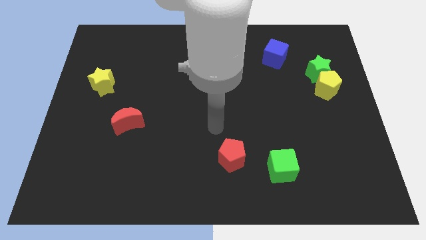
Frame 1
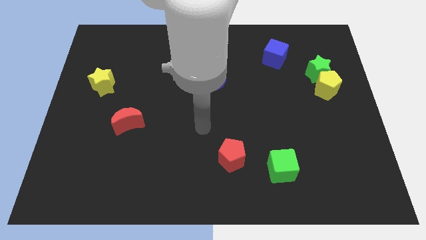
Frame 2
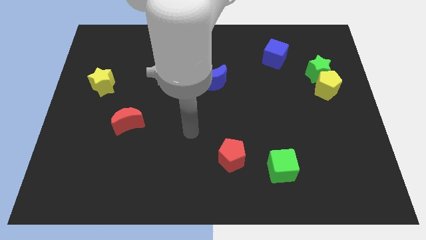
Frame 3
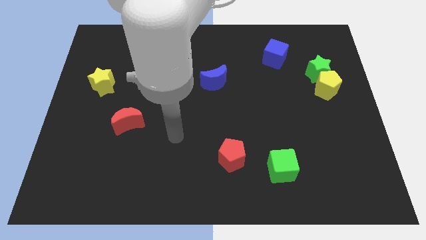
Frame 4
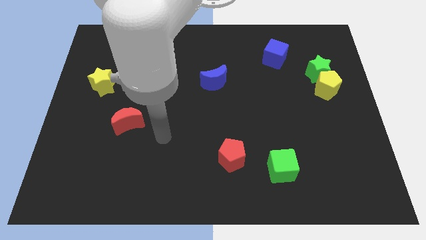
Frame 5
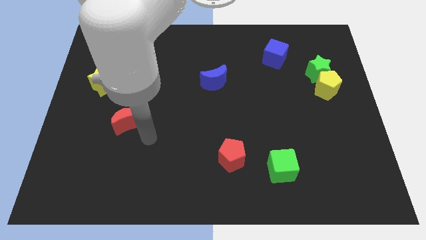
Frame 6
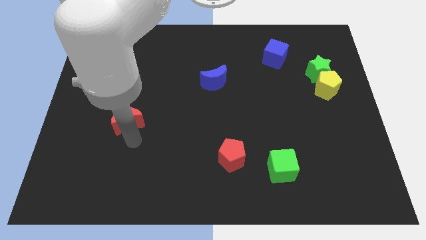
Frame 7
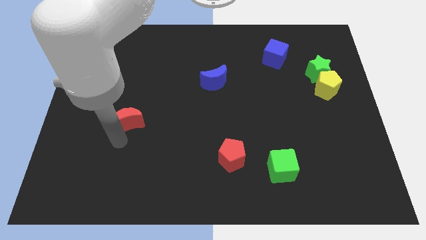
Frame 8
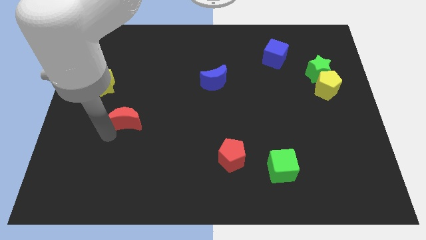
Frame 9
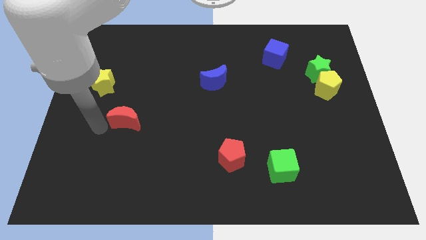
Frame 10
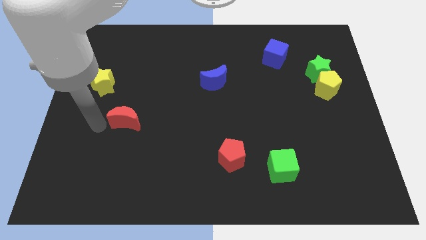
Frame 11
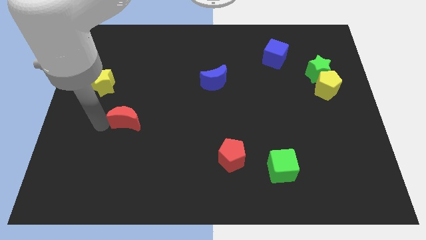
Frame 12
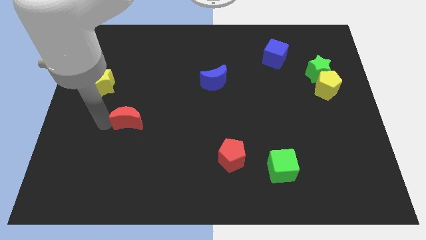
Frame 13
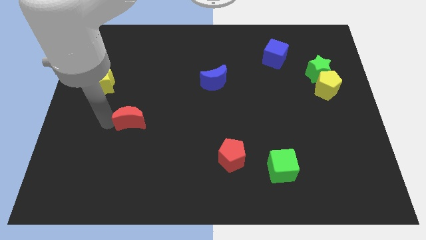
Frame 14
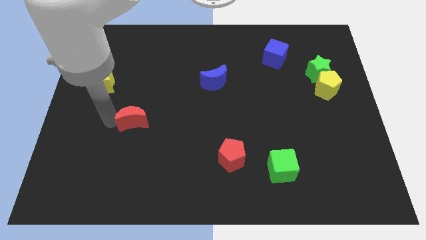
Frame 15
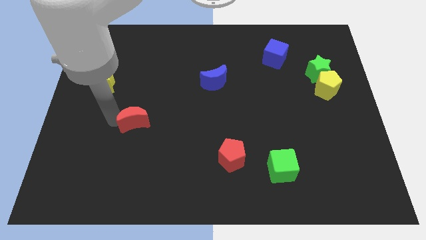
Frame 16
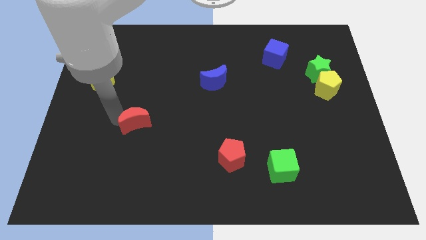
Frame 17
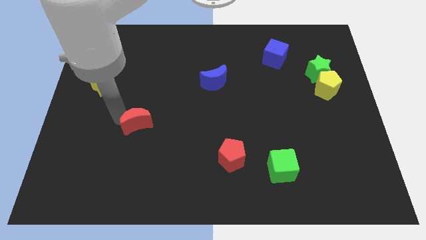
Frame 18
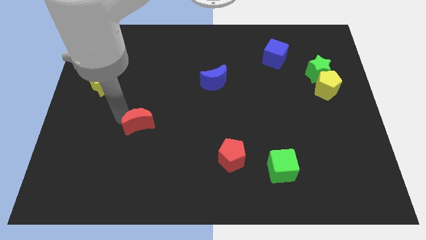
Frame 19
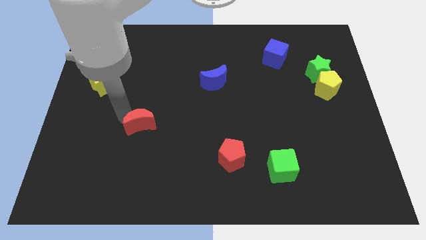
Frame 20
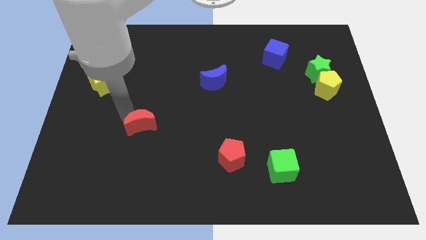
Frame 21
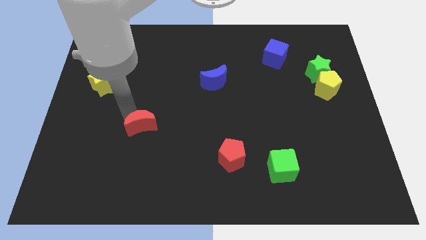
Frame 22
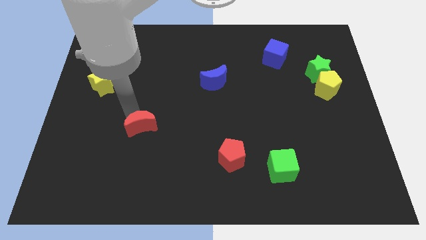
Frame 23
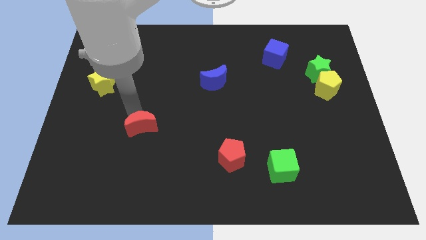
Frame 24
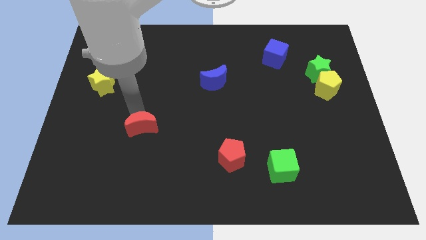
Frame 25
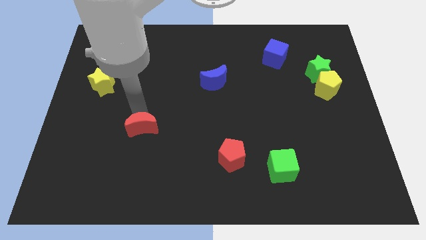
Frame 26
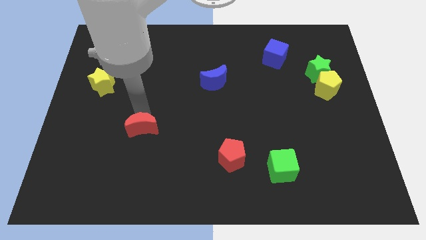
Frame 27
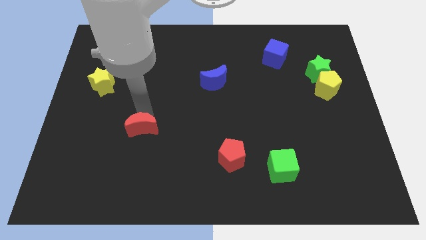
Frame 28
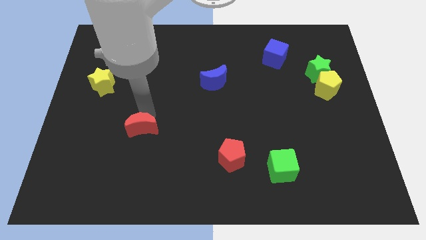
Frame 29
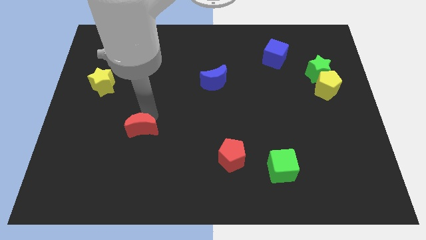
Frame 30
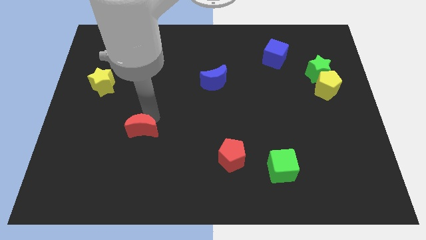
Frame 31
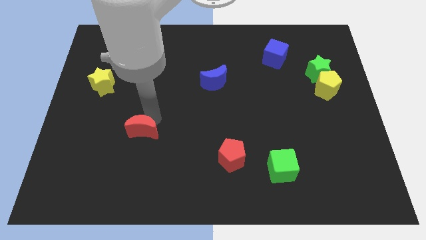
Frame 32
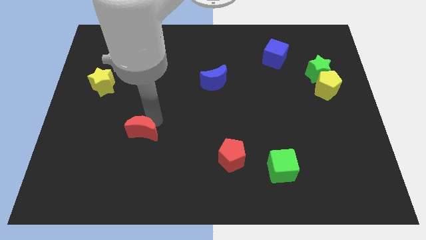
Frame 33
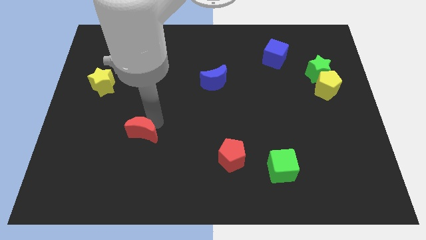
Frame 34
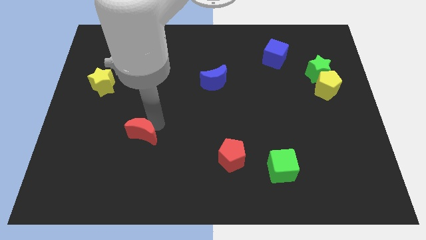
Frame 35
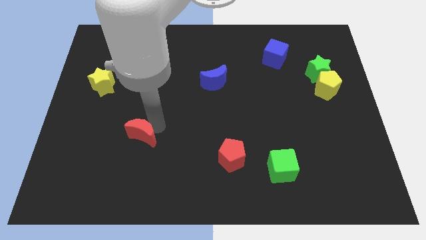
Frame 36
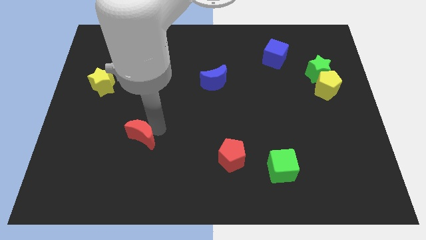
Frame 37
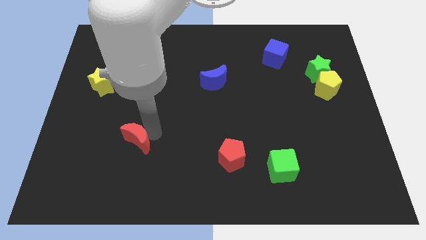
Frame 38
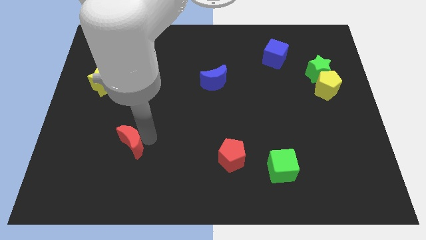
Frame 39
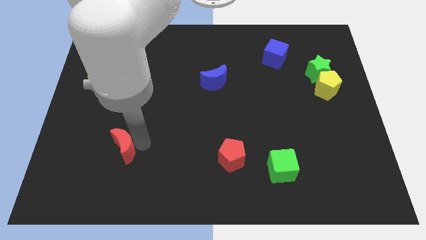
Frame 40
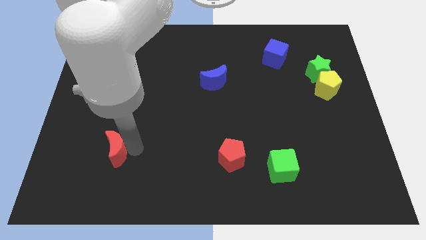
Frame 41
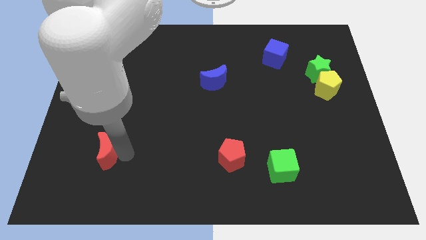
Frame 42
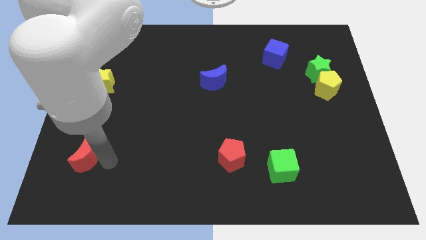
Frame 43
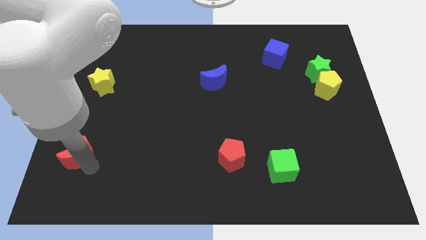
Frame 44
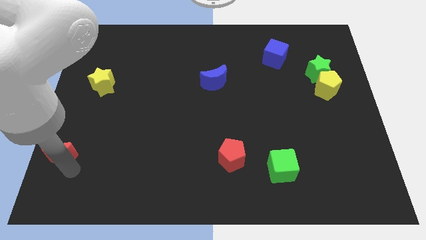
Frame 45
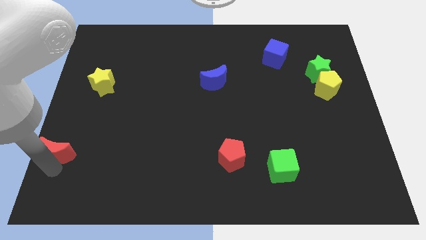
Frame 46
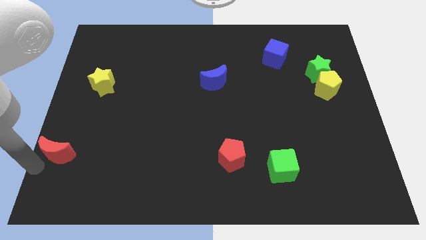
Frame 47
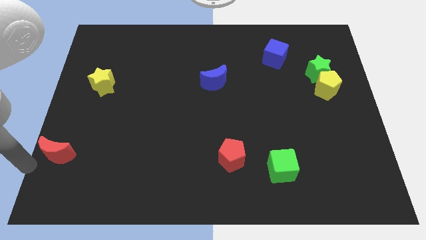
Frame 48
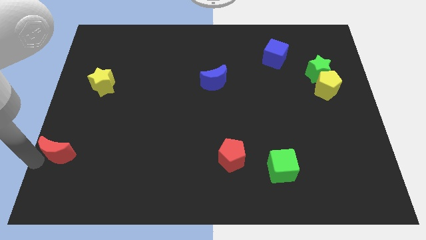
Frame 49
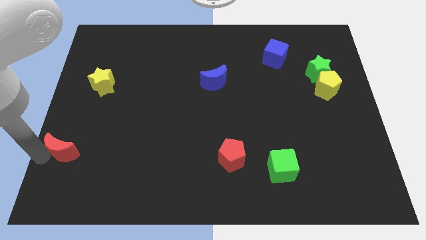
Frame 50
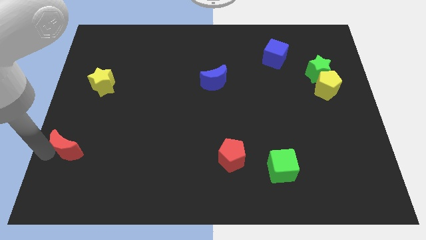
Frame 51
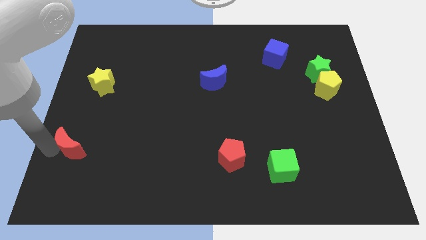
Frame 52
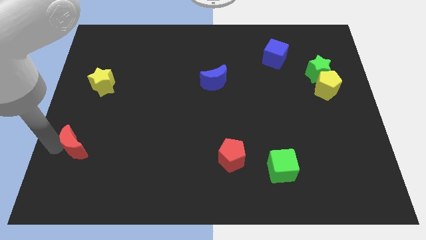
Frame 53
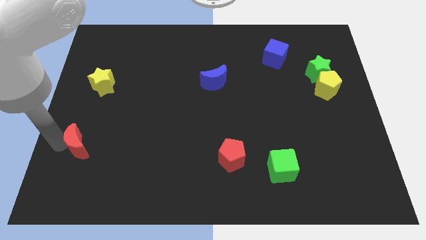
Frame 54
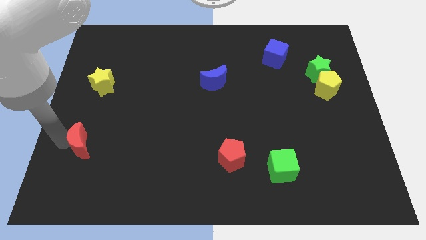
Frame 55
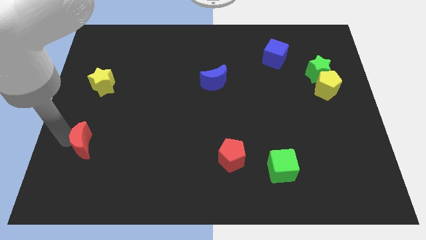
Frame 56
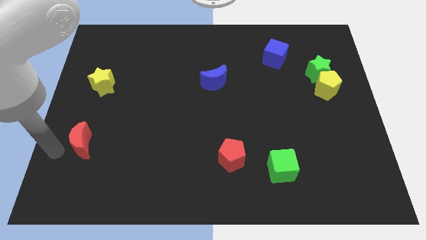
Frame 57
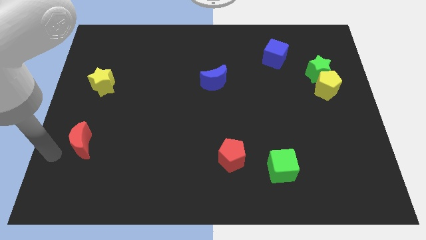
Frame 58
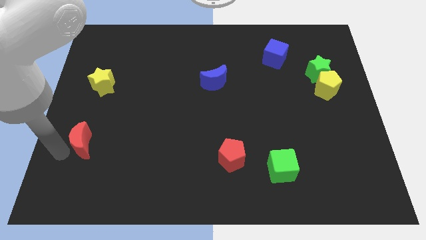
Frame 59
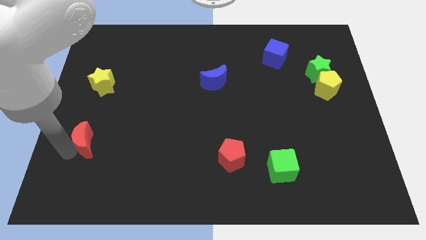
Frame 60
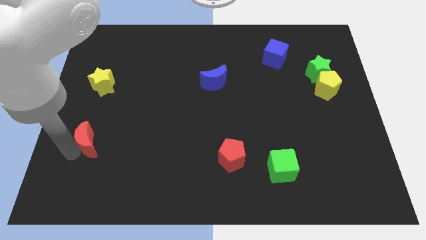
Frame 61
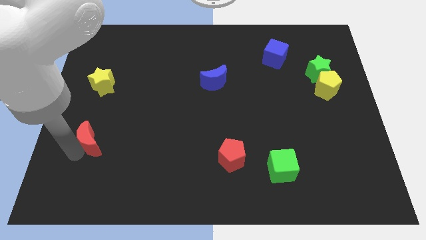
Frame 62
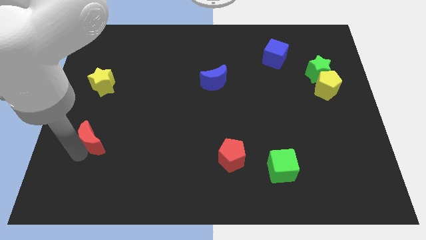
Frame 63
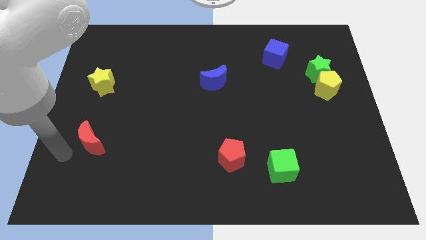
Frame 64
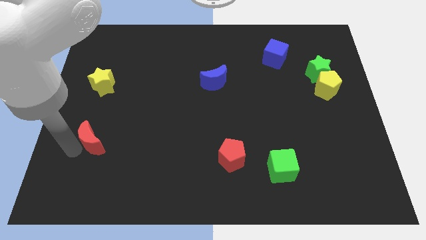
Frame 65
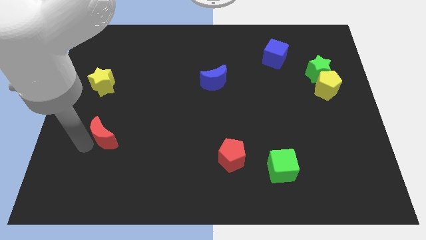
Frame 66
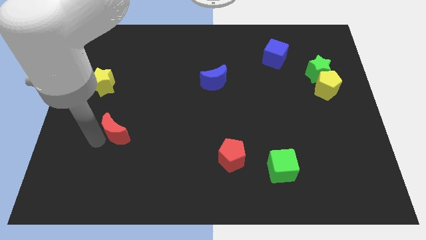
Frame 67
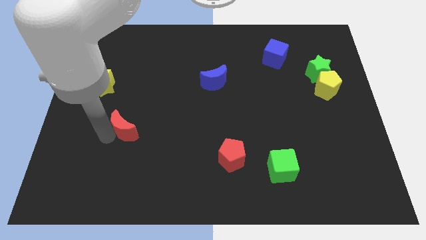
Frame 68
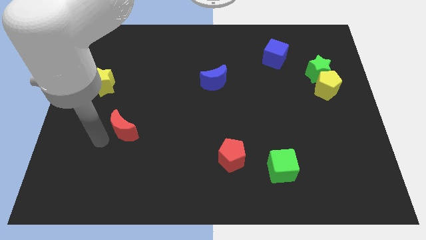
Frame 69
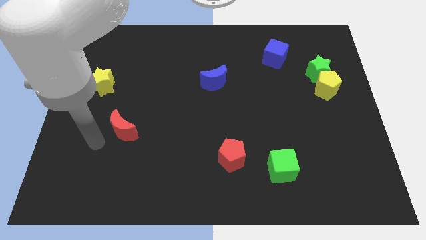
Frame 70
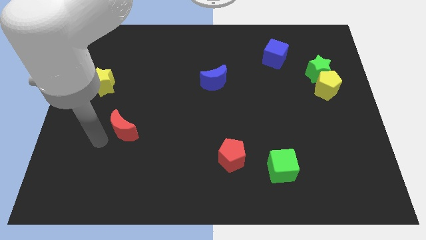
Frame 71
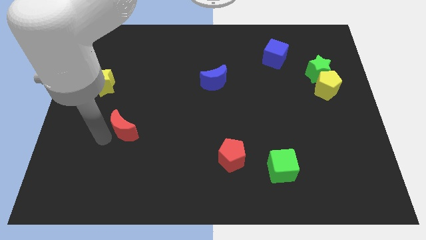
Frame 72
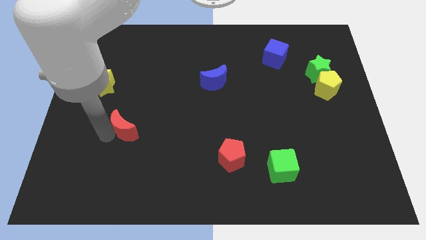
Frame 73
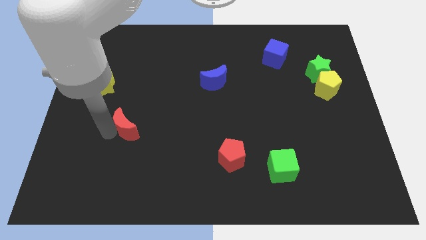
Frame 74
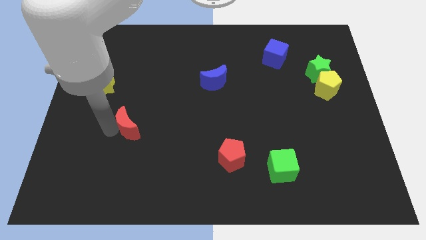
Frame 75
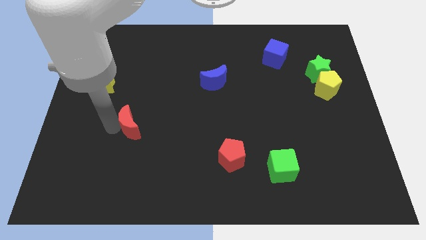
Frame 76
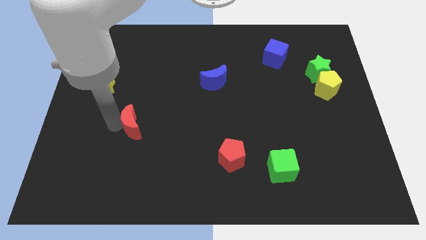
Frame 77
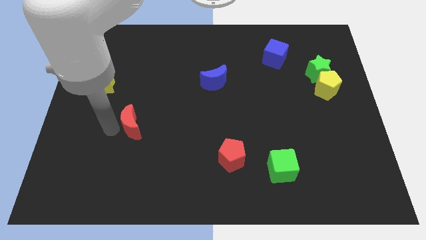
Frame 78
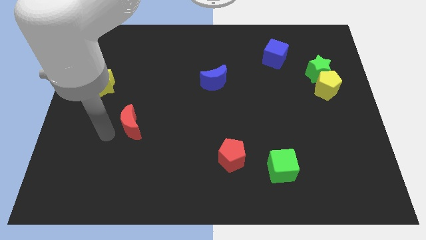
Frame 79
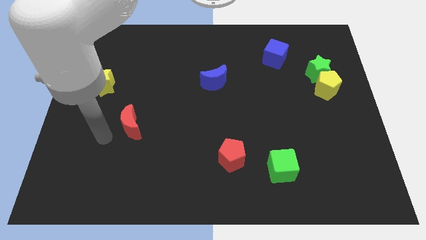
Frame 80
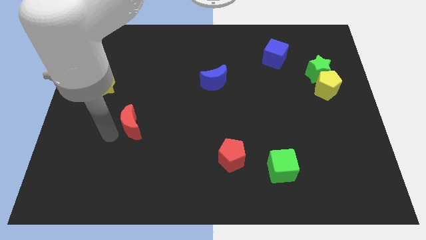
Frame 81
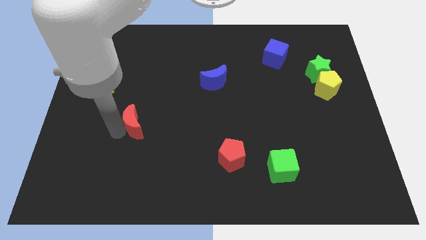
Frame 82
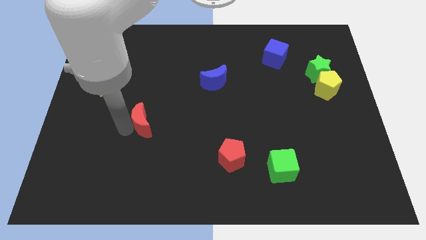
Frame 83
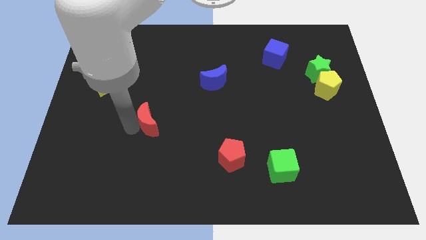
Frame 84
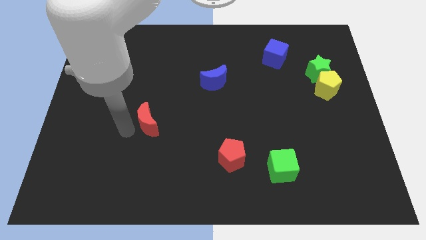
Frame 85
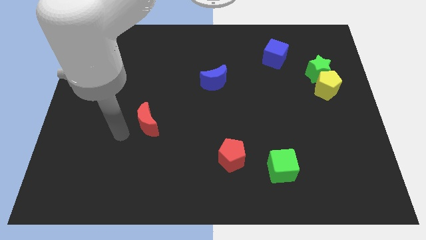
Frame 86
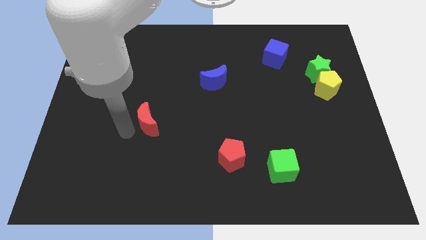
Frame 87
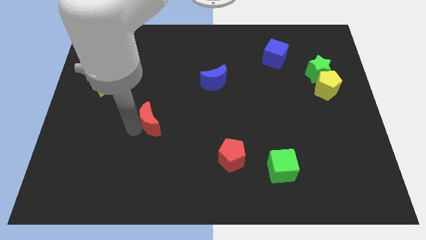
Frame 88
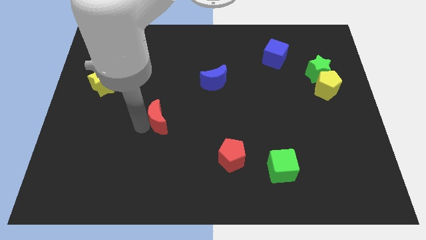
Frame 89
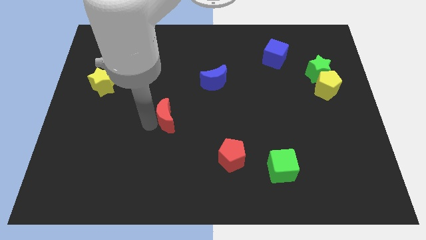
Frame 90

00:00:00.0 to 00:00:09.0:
push the red moon to the middle of the board
